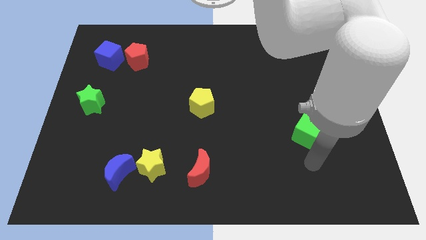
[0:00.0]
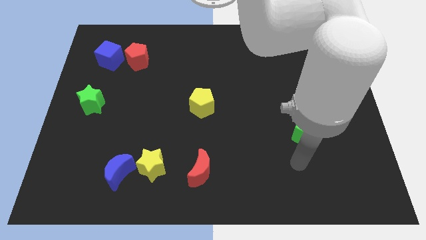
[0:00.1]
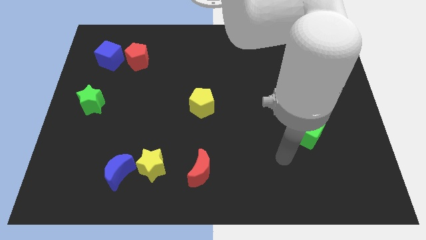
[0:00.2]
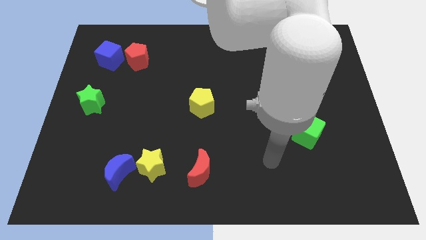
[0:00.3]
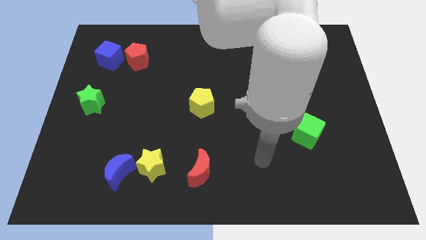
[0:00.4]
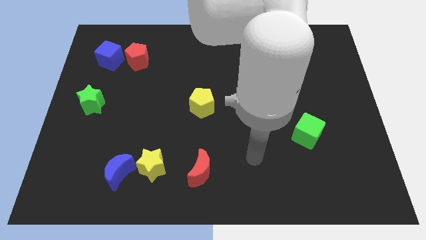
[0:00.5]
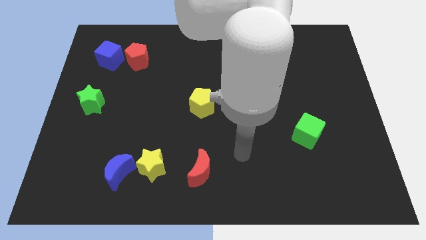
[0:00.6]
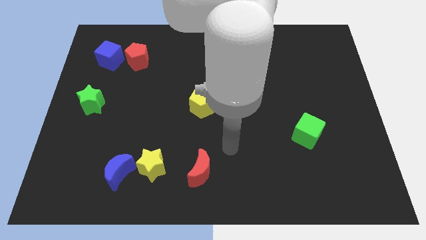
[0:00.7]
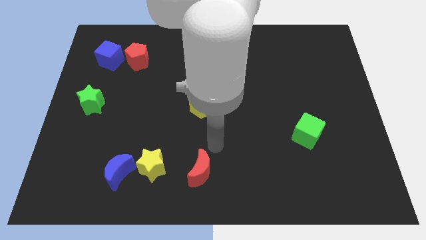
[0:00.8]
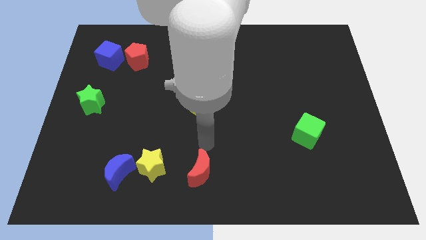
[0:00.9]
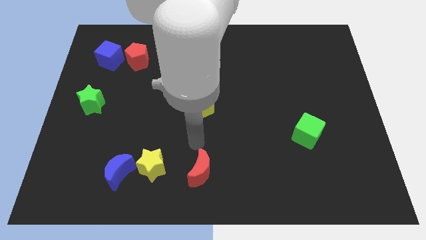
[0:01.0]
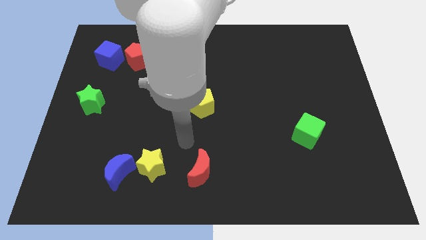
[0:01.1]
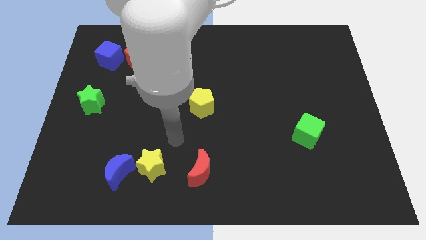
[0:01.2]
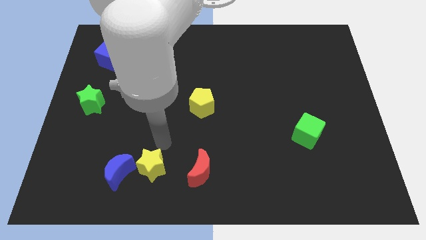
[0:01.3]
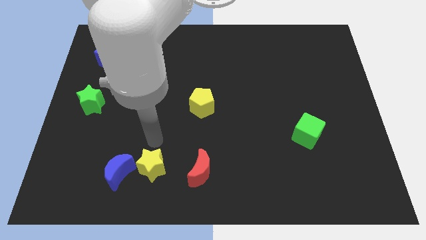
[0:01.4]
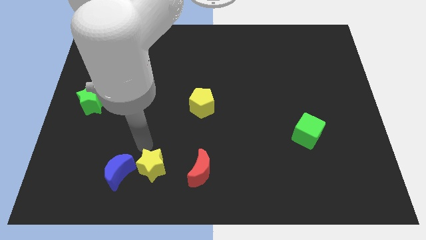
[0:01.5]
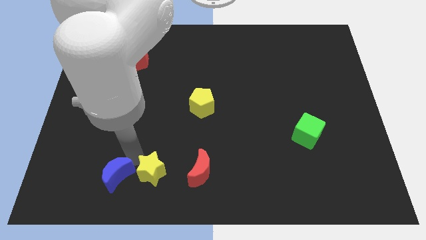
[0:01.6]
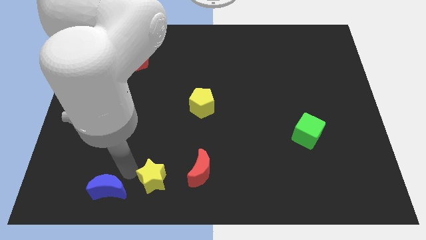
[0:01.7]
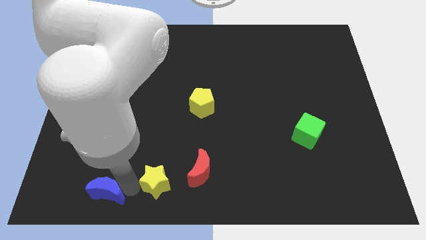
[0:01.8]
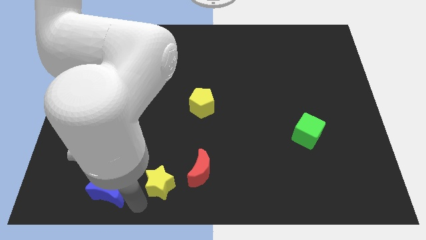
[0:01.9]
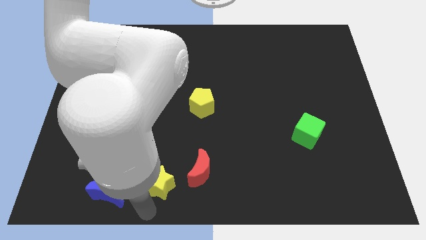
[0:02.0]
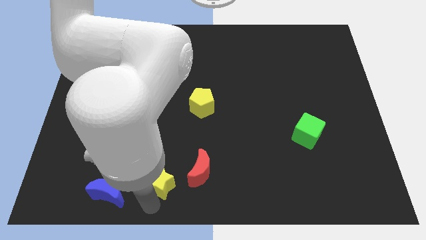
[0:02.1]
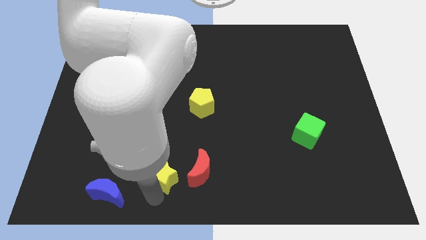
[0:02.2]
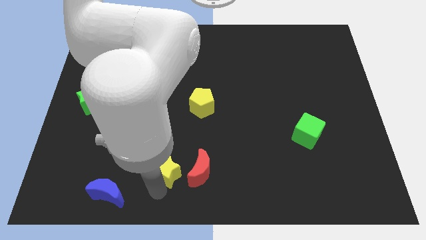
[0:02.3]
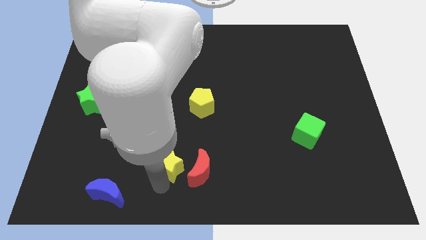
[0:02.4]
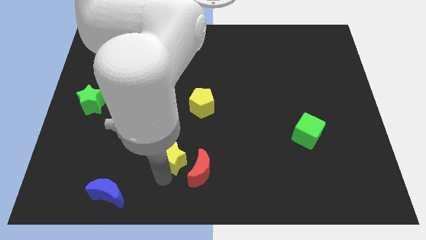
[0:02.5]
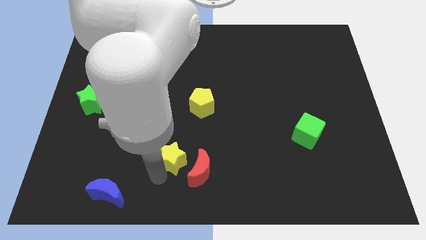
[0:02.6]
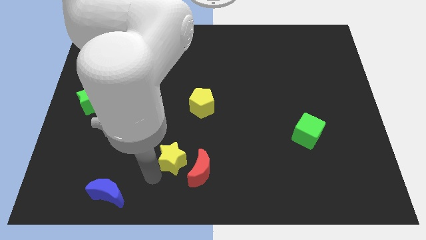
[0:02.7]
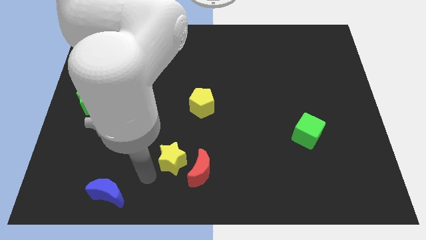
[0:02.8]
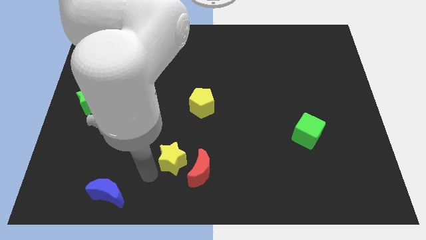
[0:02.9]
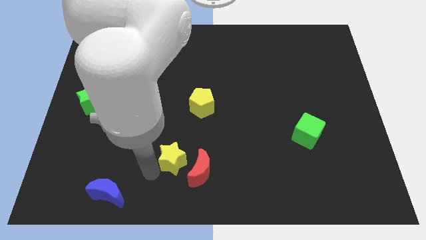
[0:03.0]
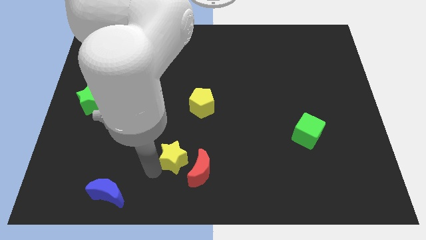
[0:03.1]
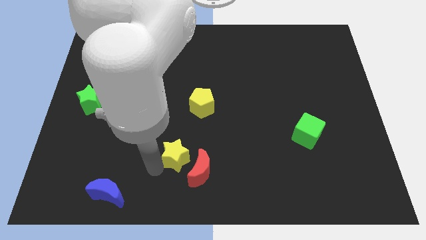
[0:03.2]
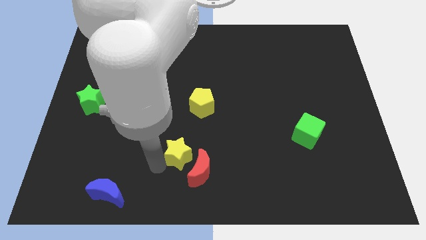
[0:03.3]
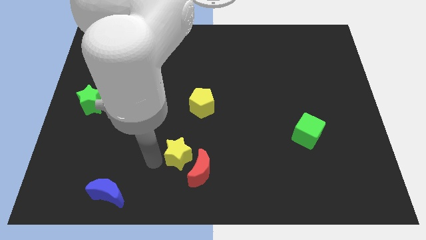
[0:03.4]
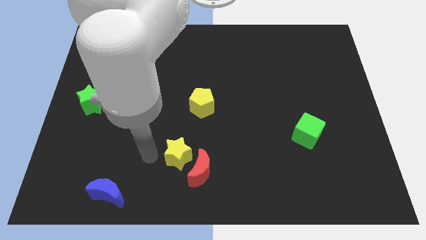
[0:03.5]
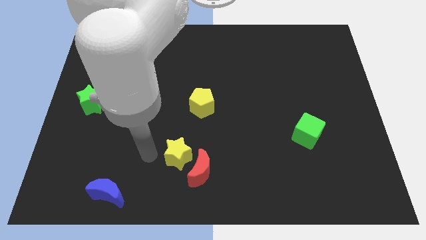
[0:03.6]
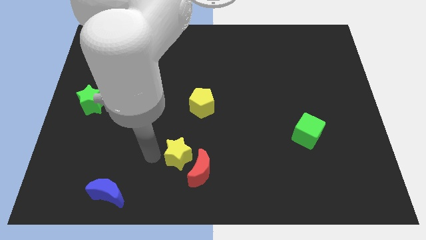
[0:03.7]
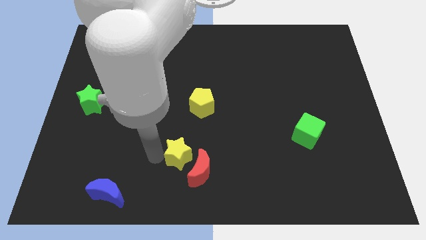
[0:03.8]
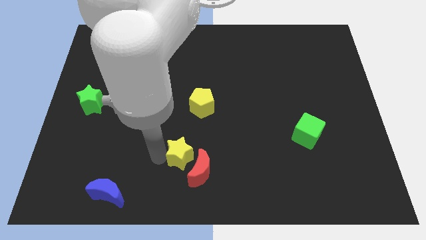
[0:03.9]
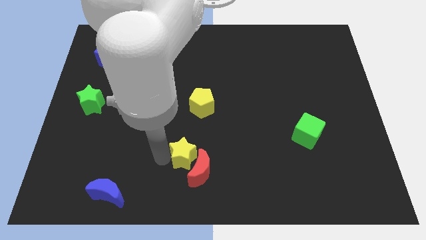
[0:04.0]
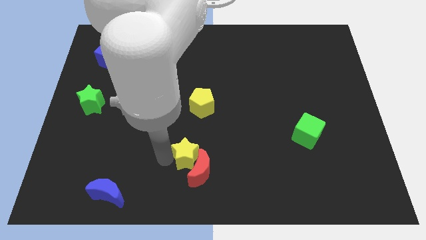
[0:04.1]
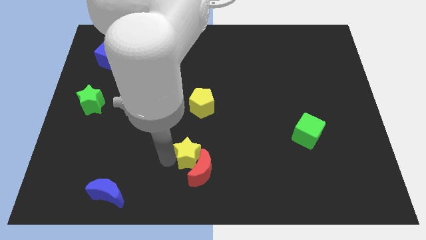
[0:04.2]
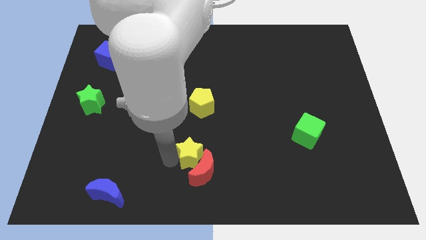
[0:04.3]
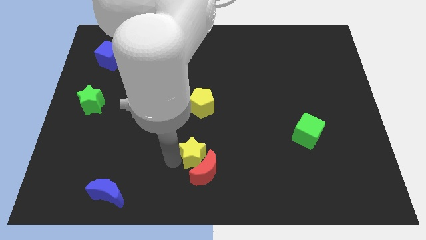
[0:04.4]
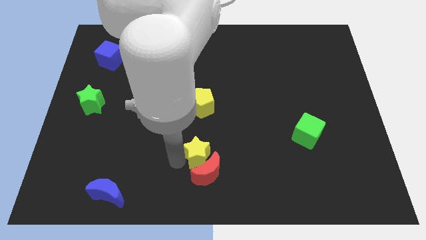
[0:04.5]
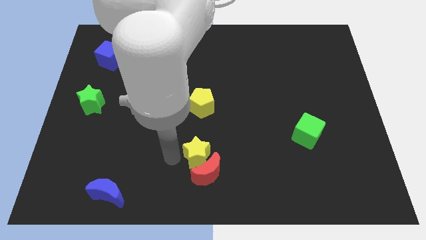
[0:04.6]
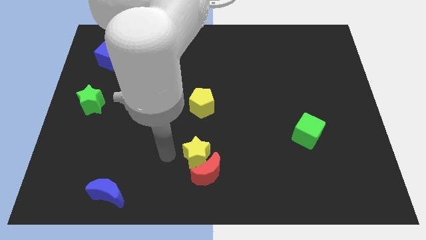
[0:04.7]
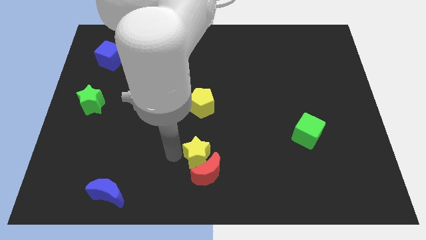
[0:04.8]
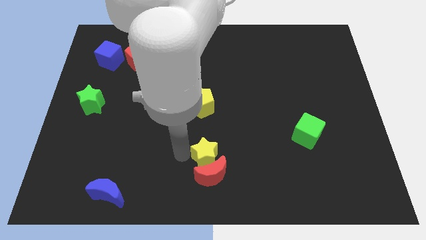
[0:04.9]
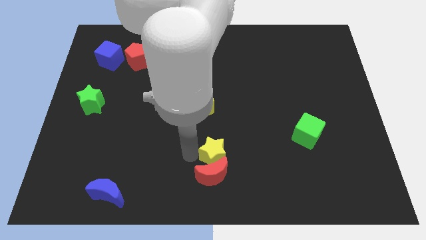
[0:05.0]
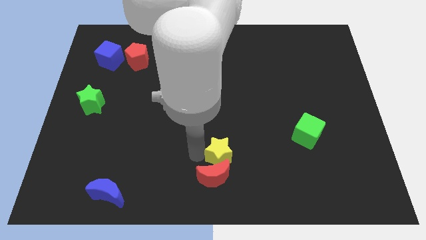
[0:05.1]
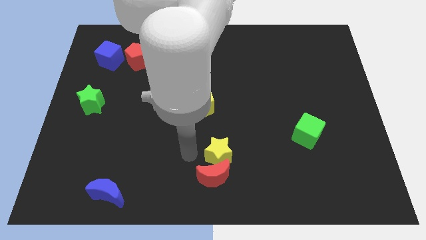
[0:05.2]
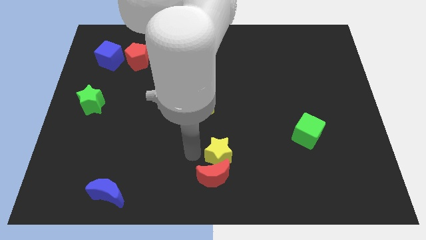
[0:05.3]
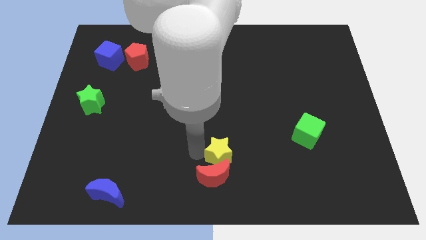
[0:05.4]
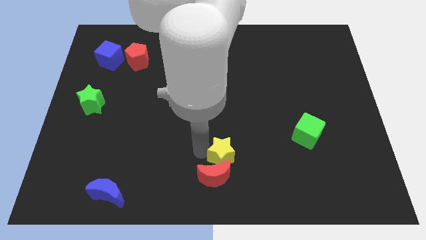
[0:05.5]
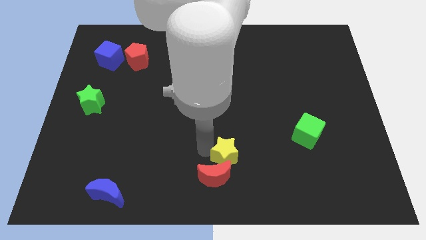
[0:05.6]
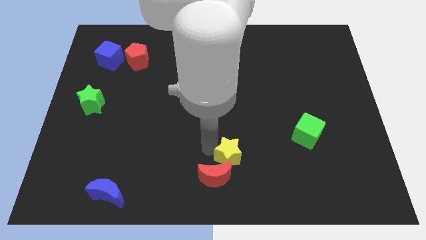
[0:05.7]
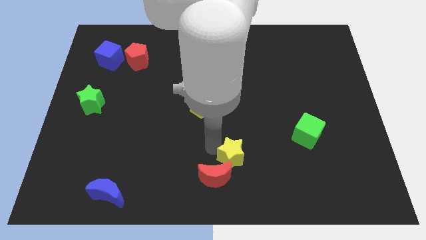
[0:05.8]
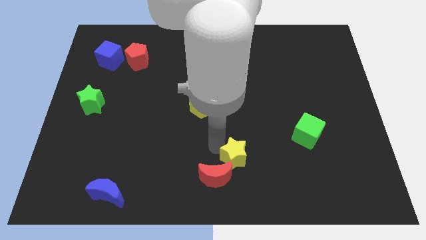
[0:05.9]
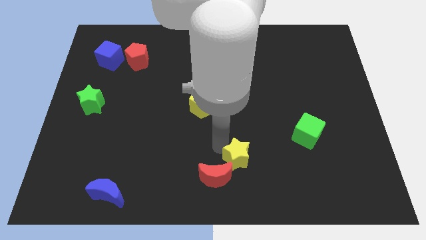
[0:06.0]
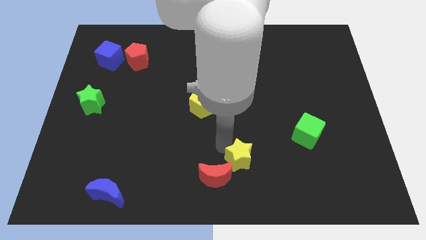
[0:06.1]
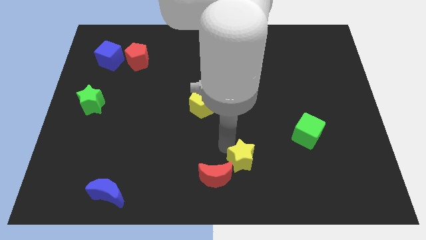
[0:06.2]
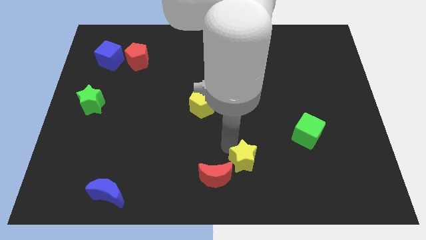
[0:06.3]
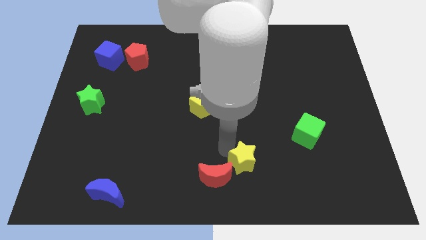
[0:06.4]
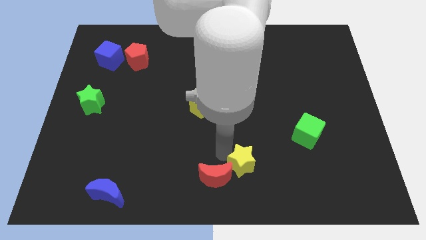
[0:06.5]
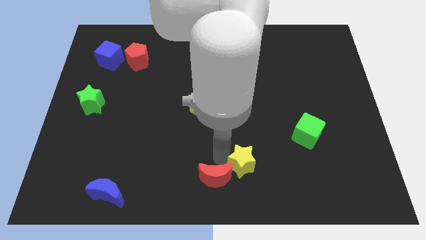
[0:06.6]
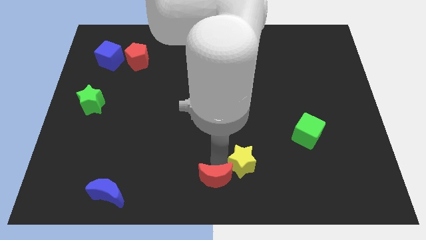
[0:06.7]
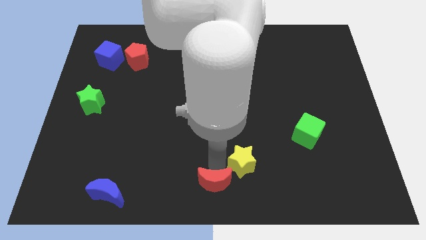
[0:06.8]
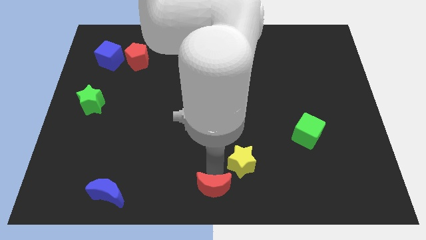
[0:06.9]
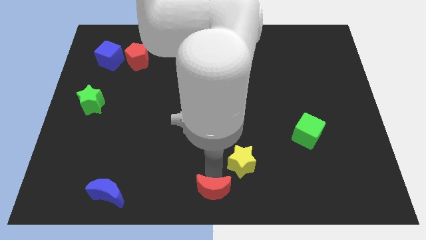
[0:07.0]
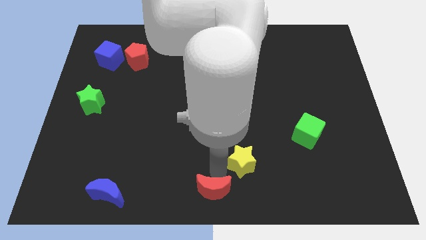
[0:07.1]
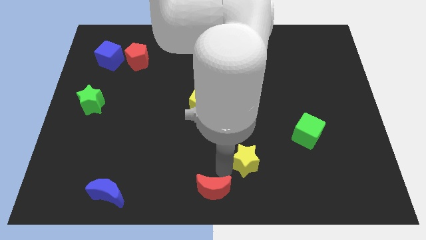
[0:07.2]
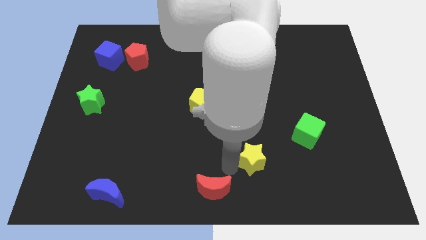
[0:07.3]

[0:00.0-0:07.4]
move the yellow star to the right
